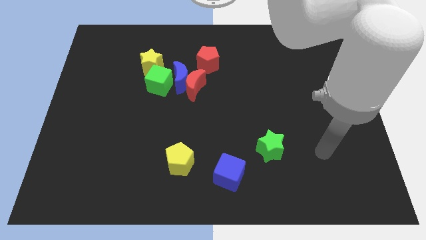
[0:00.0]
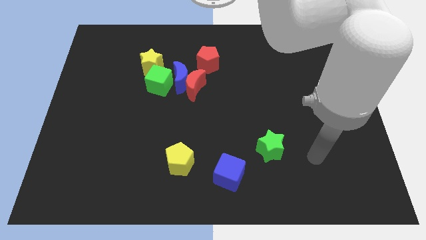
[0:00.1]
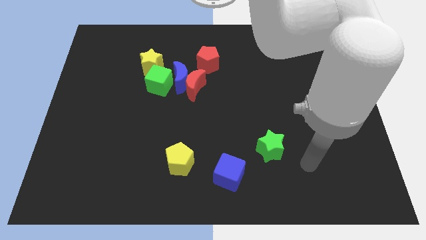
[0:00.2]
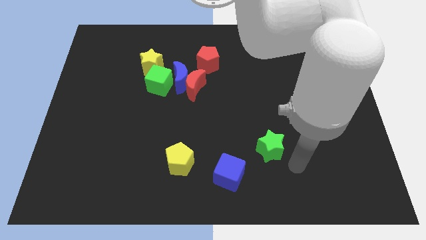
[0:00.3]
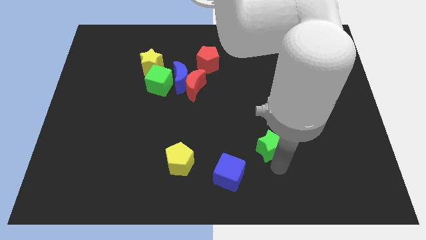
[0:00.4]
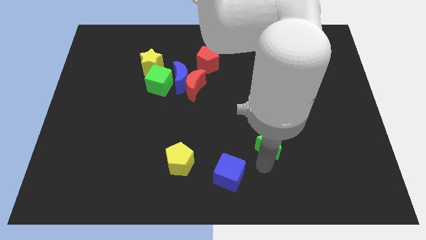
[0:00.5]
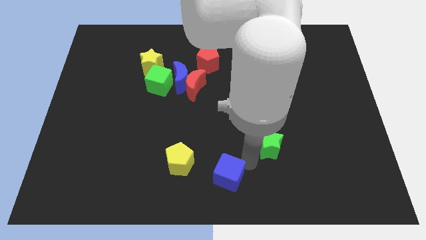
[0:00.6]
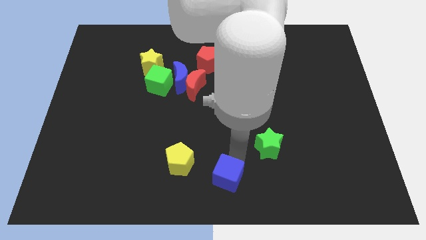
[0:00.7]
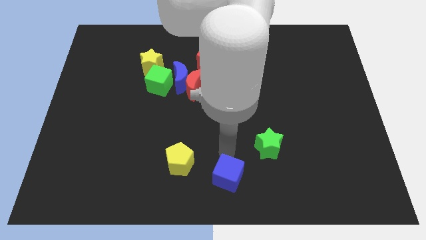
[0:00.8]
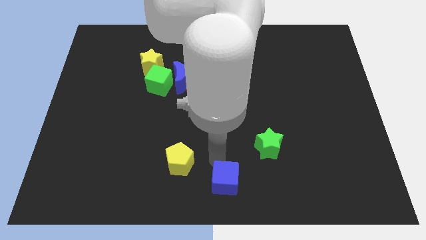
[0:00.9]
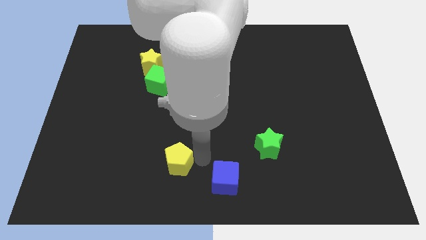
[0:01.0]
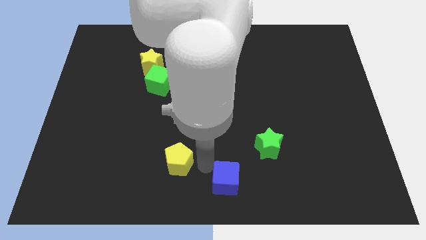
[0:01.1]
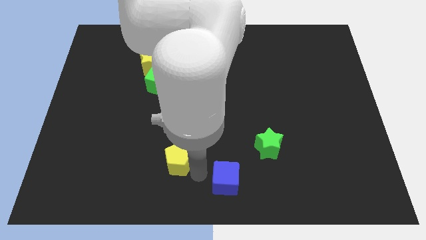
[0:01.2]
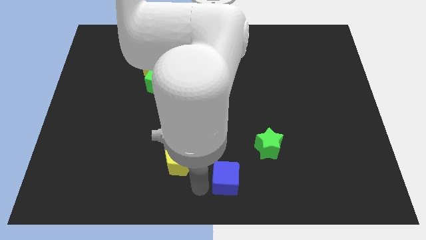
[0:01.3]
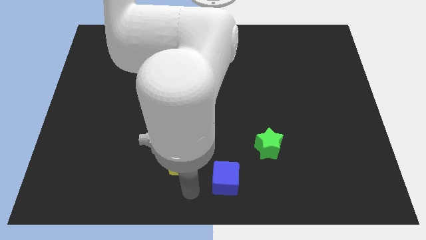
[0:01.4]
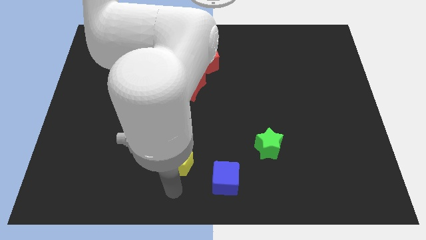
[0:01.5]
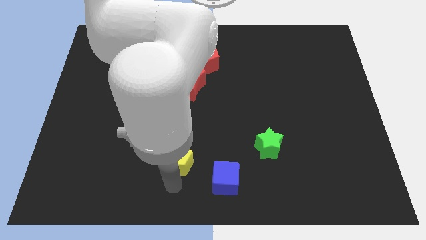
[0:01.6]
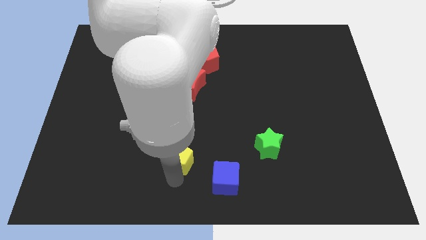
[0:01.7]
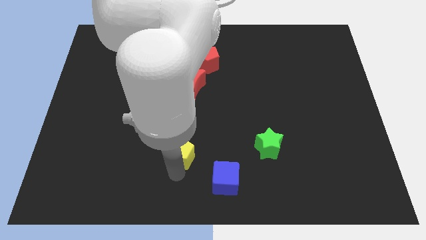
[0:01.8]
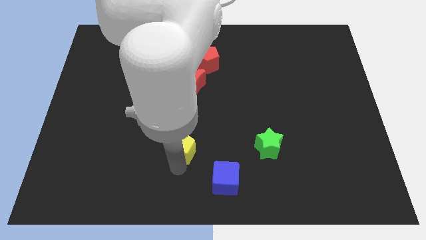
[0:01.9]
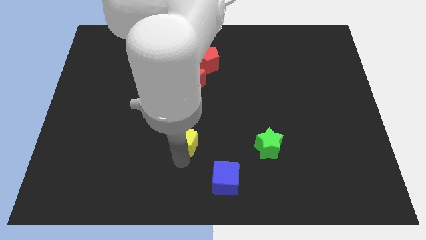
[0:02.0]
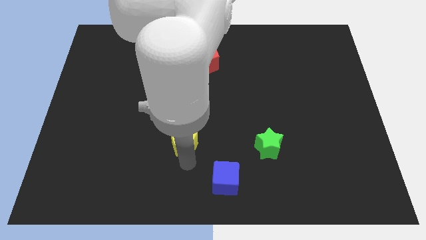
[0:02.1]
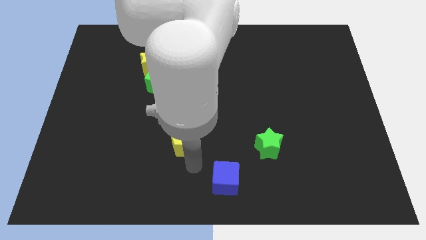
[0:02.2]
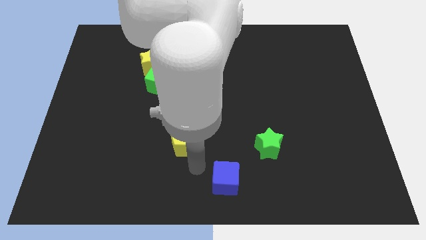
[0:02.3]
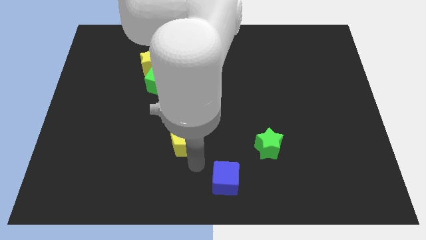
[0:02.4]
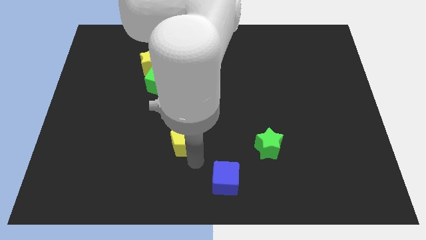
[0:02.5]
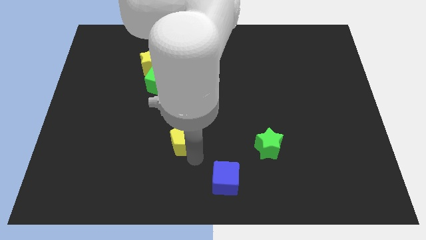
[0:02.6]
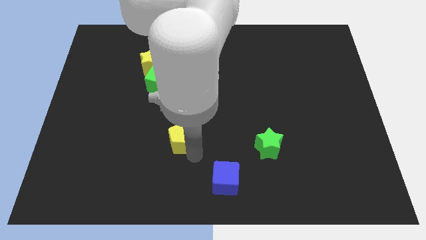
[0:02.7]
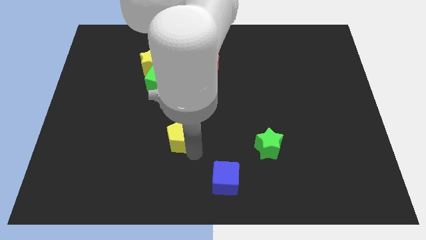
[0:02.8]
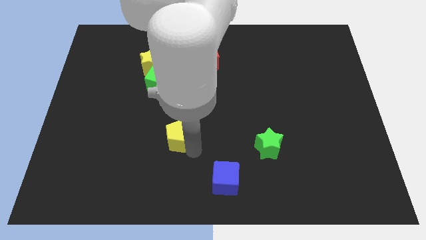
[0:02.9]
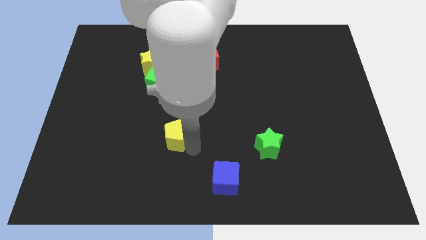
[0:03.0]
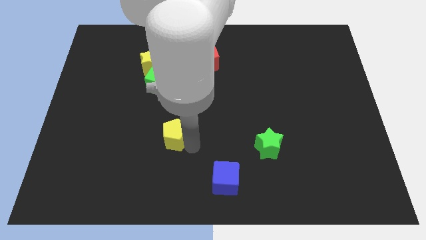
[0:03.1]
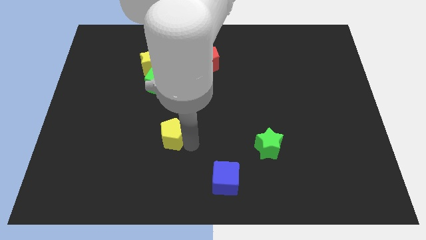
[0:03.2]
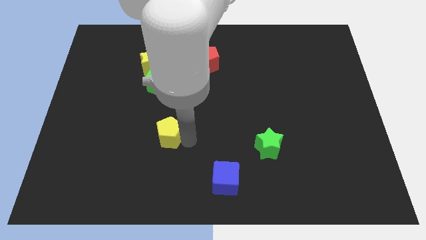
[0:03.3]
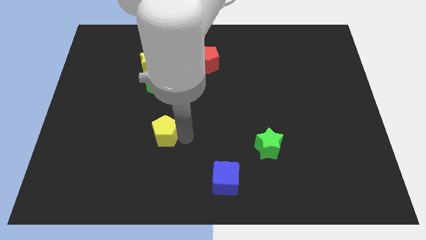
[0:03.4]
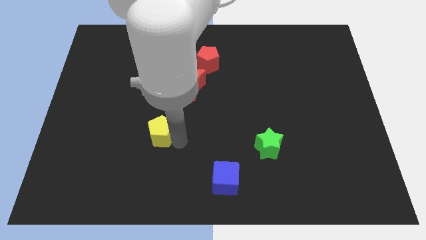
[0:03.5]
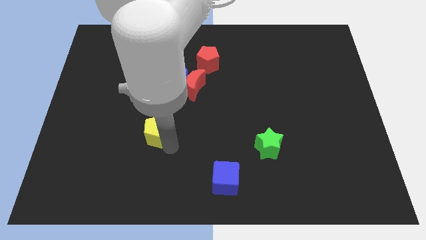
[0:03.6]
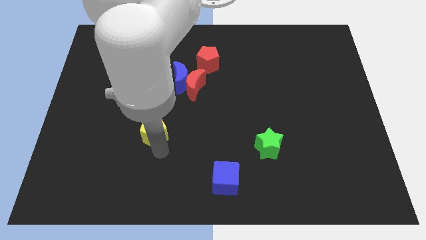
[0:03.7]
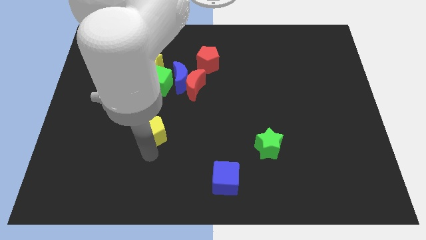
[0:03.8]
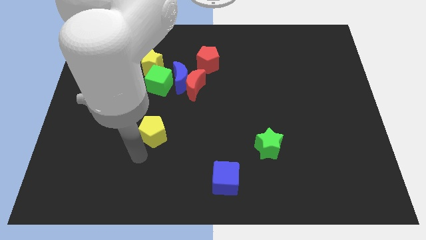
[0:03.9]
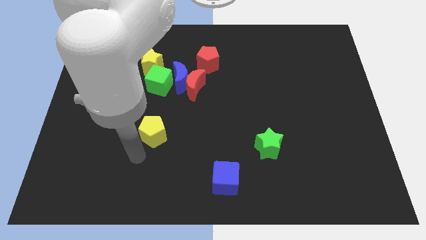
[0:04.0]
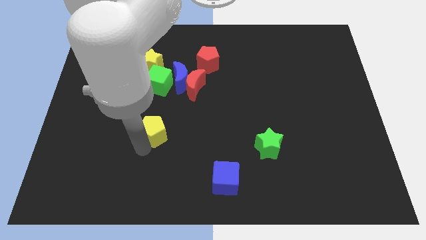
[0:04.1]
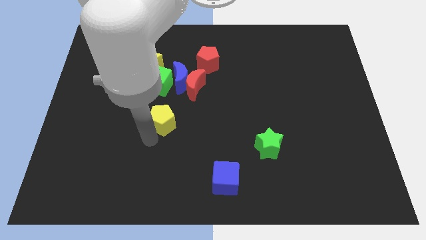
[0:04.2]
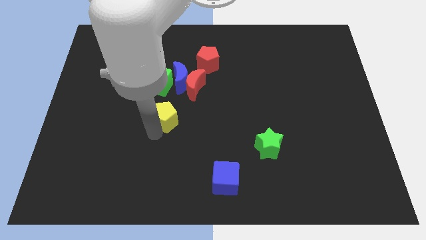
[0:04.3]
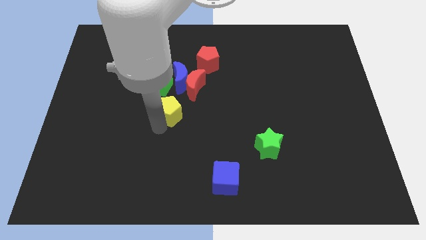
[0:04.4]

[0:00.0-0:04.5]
slide the yellow pentagon to the bottom right side of the green cube

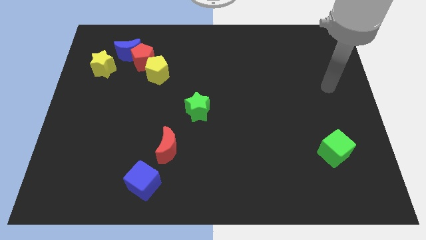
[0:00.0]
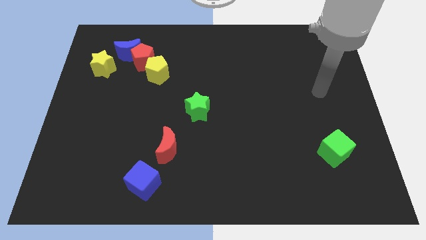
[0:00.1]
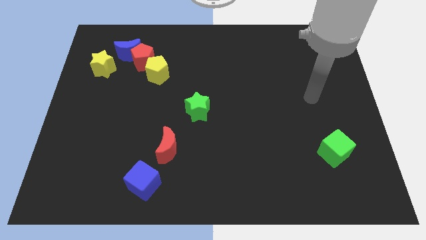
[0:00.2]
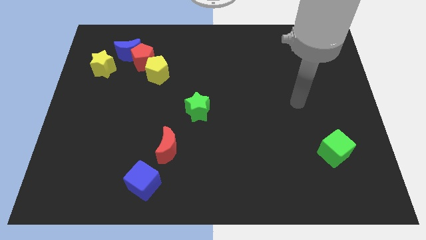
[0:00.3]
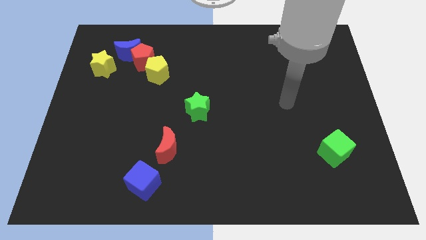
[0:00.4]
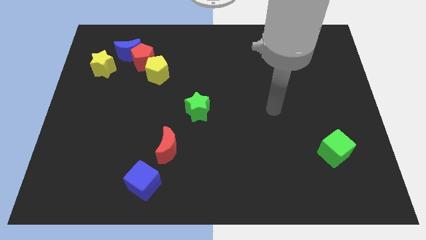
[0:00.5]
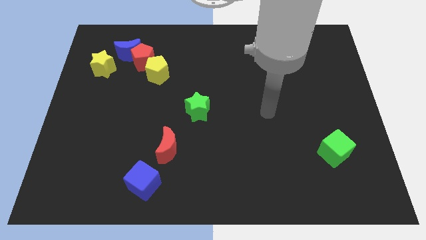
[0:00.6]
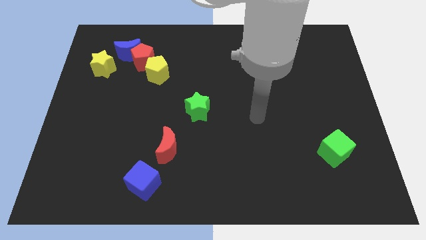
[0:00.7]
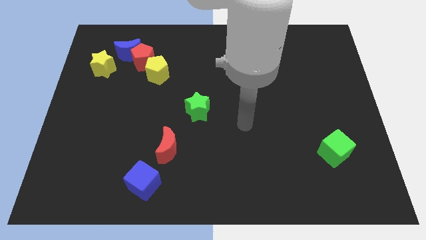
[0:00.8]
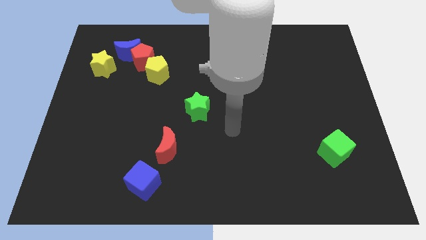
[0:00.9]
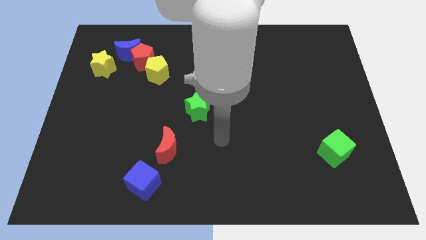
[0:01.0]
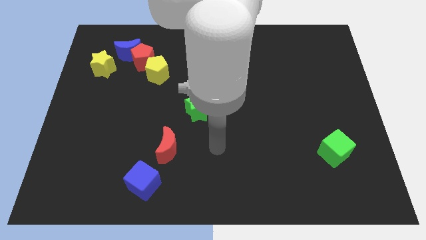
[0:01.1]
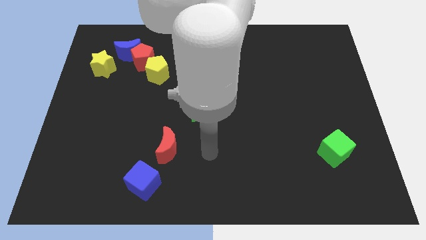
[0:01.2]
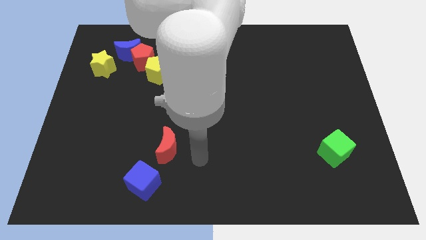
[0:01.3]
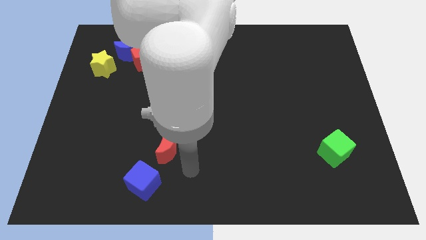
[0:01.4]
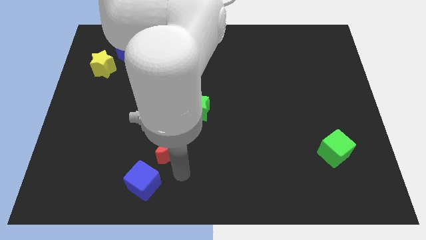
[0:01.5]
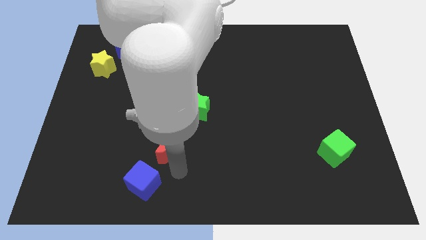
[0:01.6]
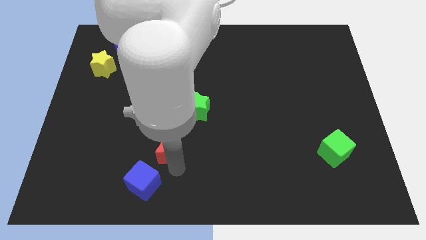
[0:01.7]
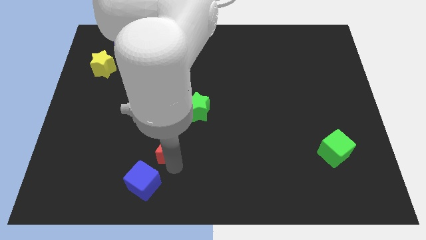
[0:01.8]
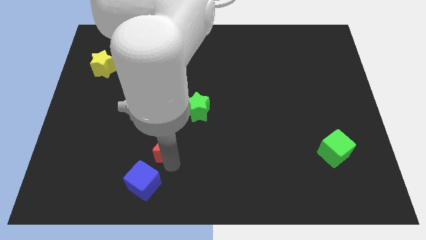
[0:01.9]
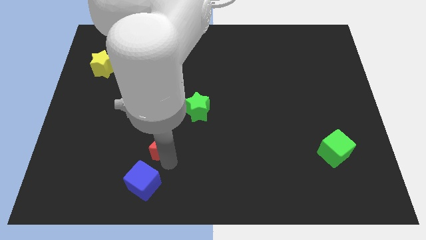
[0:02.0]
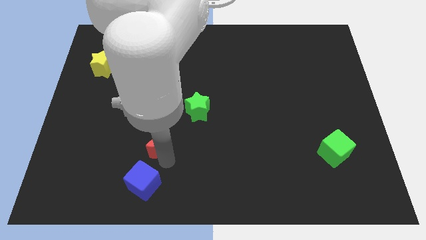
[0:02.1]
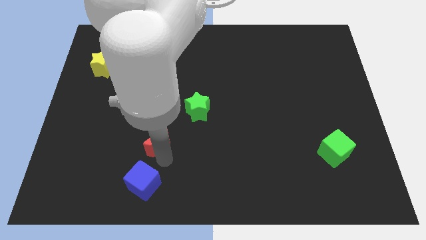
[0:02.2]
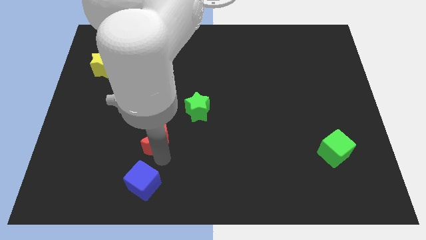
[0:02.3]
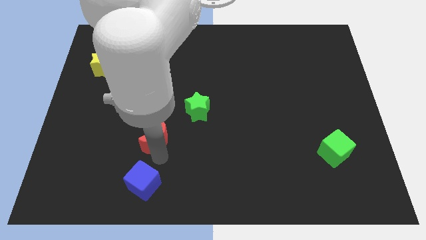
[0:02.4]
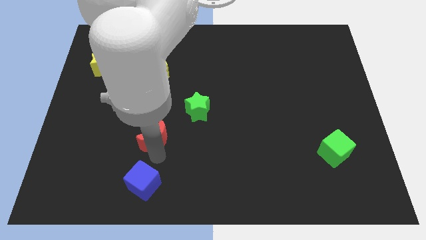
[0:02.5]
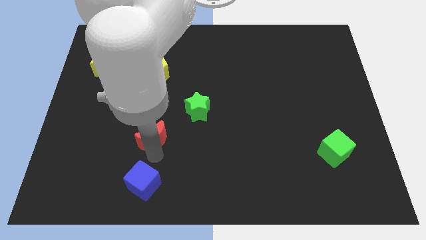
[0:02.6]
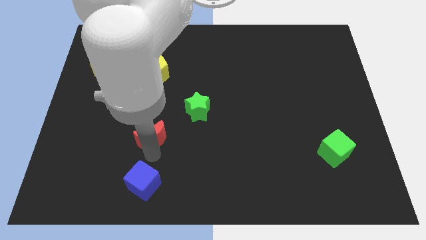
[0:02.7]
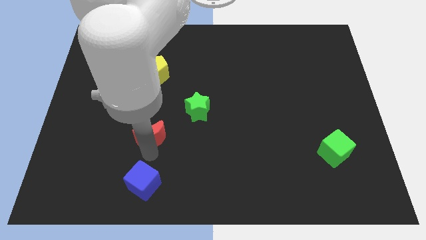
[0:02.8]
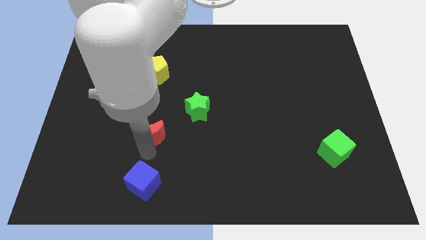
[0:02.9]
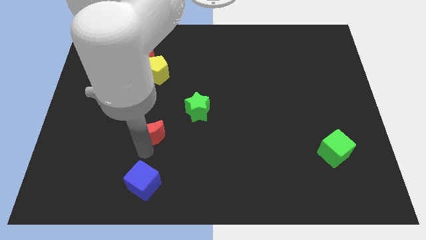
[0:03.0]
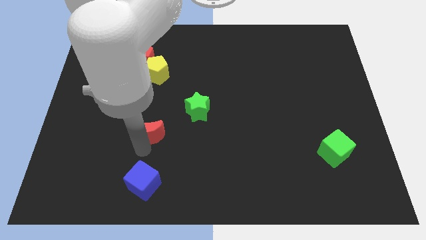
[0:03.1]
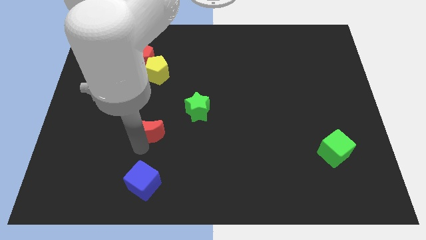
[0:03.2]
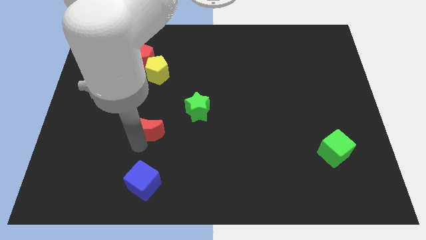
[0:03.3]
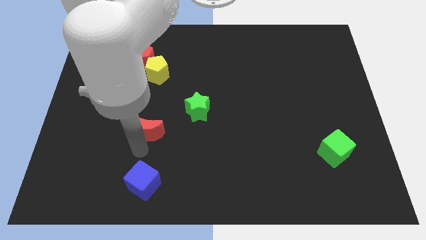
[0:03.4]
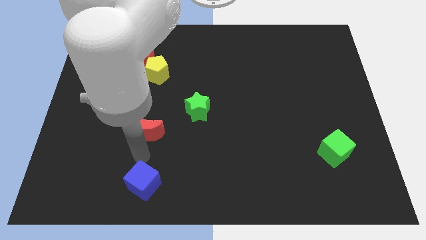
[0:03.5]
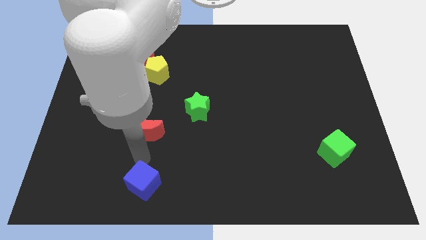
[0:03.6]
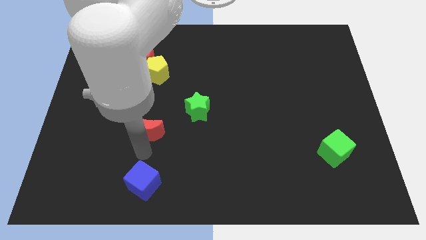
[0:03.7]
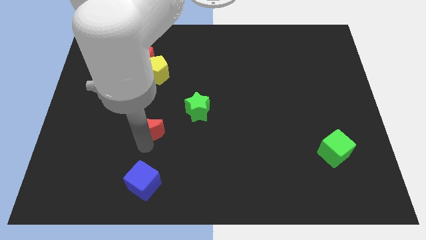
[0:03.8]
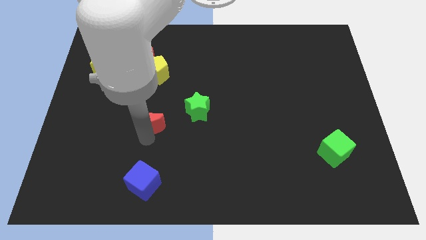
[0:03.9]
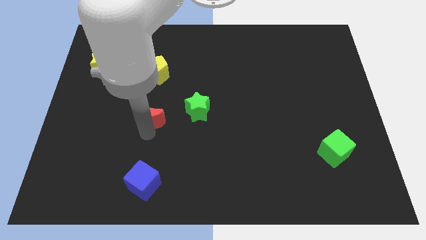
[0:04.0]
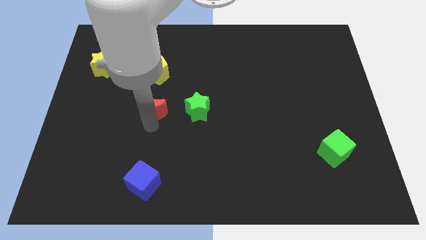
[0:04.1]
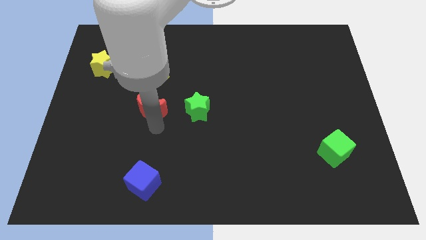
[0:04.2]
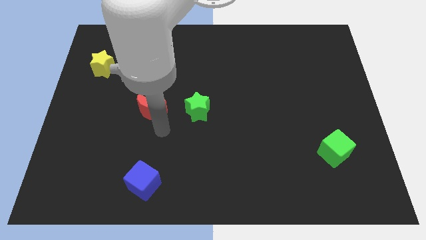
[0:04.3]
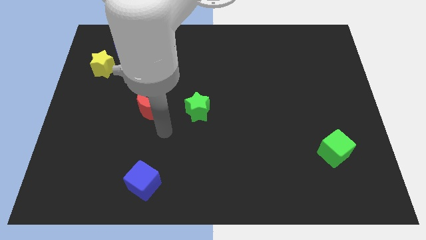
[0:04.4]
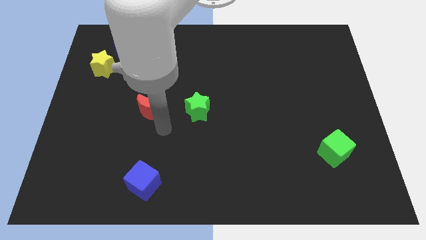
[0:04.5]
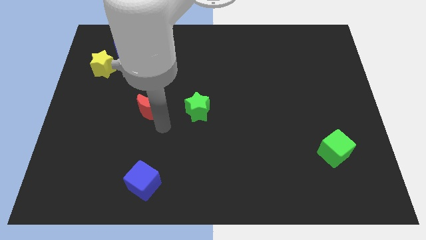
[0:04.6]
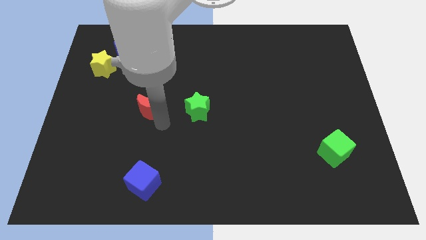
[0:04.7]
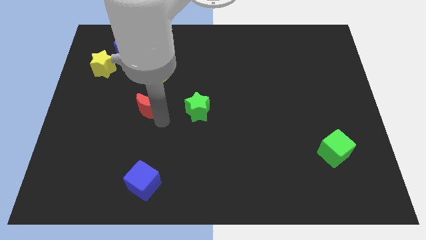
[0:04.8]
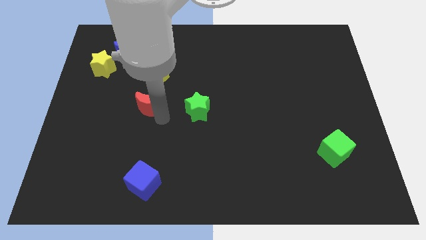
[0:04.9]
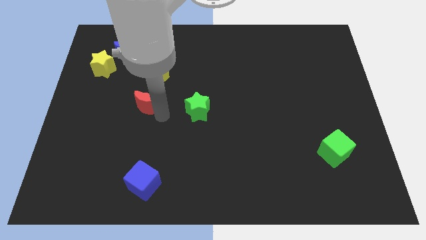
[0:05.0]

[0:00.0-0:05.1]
push the red moon below the red pentagon
